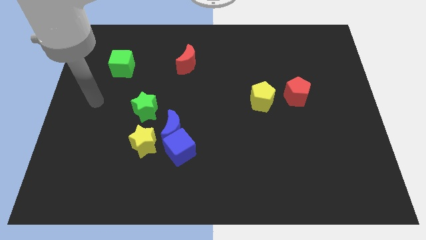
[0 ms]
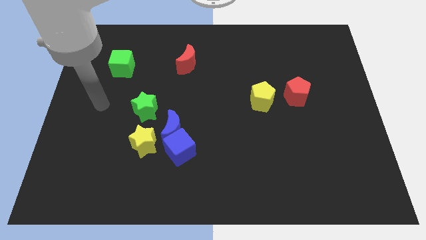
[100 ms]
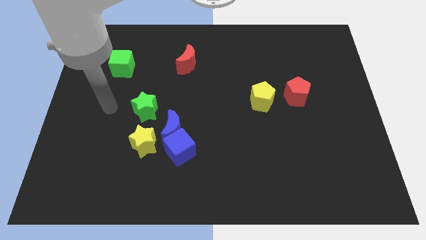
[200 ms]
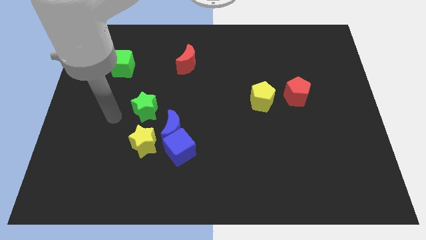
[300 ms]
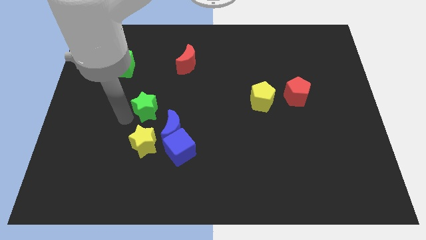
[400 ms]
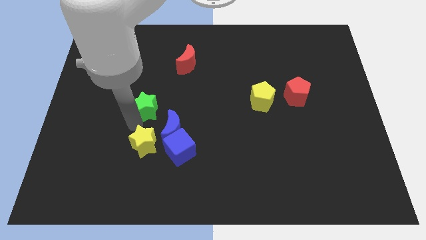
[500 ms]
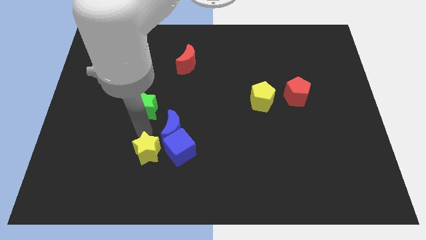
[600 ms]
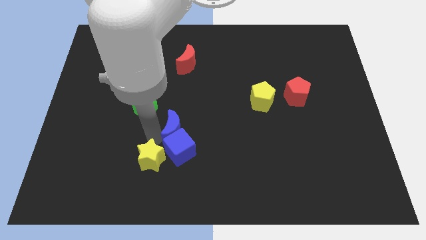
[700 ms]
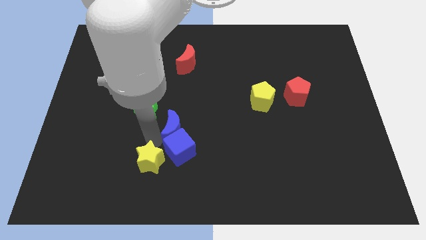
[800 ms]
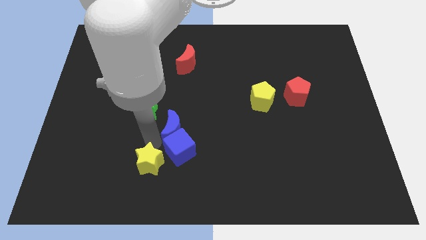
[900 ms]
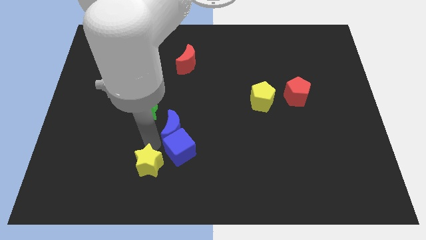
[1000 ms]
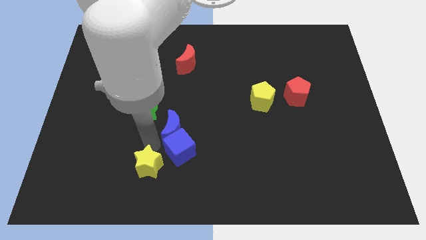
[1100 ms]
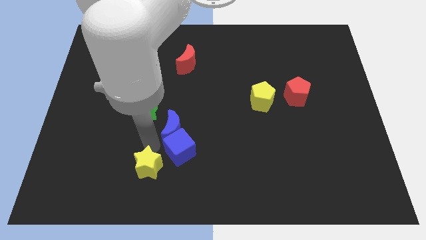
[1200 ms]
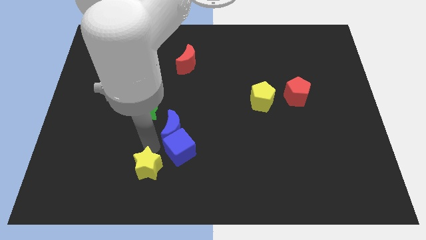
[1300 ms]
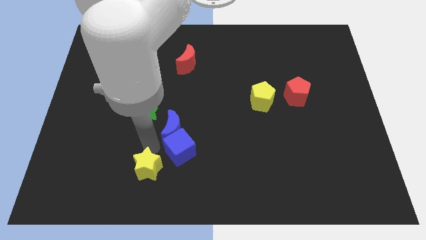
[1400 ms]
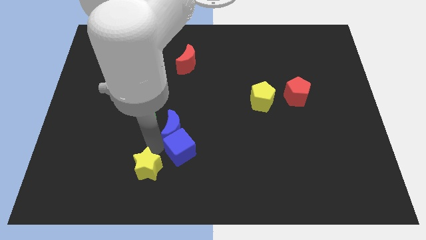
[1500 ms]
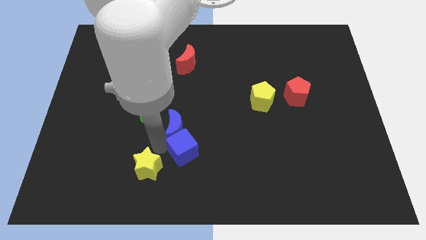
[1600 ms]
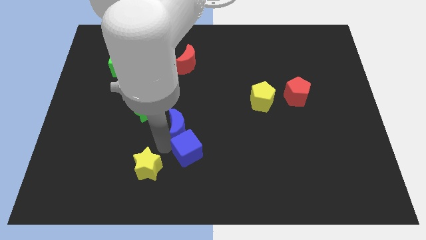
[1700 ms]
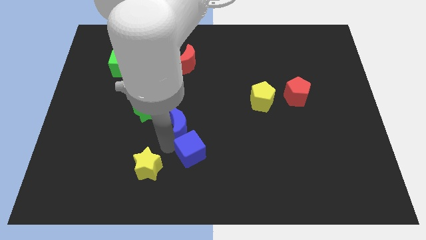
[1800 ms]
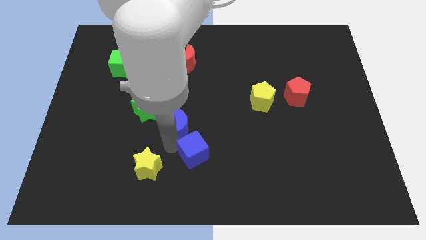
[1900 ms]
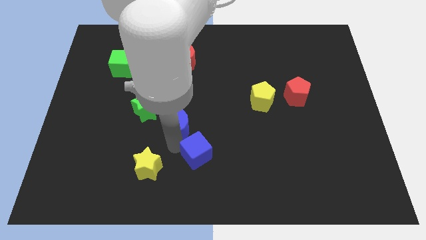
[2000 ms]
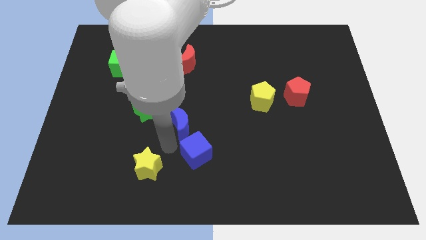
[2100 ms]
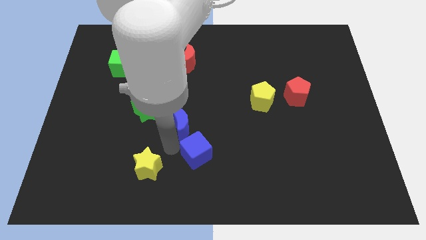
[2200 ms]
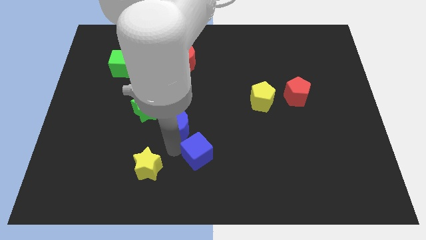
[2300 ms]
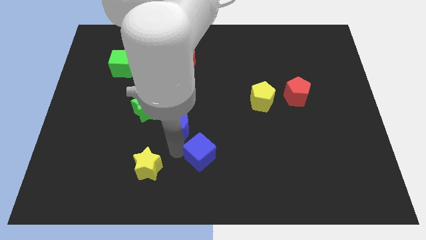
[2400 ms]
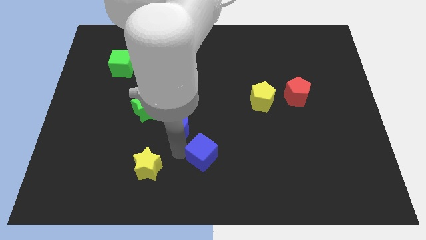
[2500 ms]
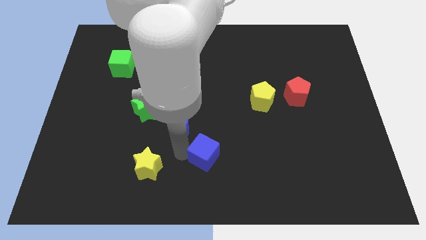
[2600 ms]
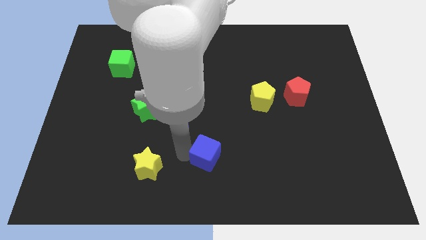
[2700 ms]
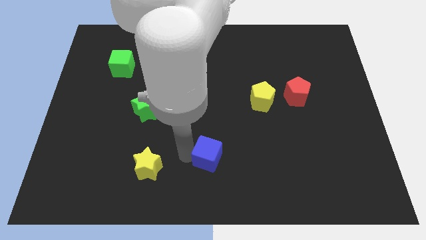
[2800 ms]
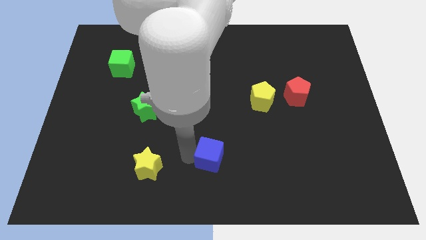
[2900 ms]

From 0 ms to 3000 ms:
separate the blue cube from the blue moon and yellow star

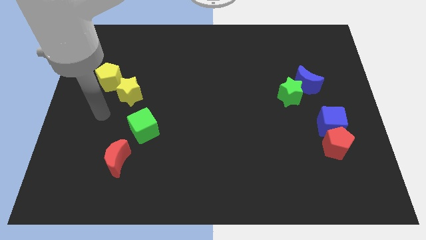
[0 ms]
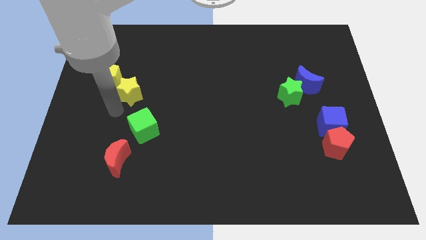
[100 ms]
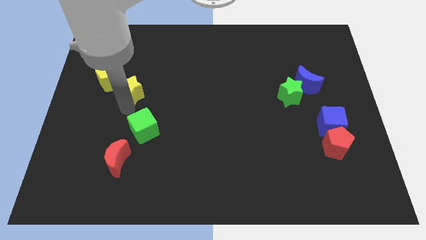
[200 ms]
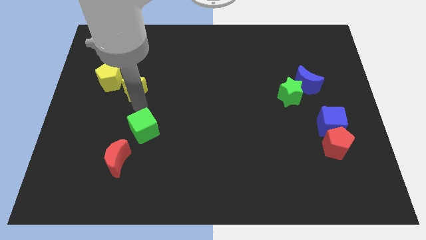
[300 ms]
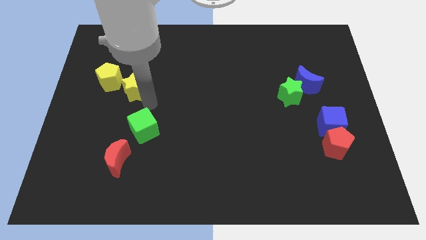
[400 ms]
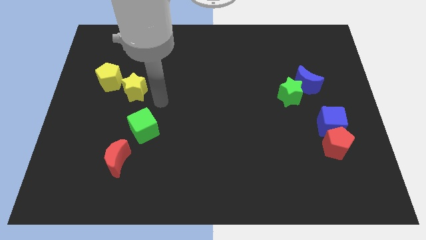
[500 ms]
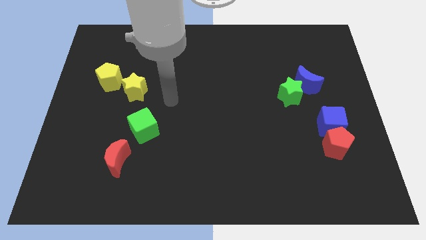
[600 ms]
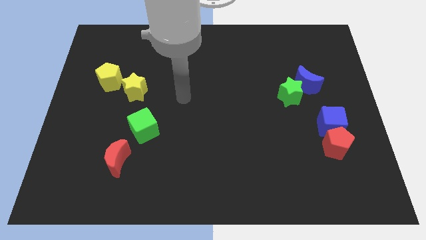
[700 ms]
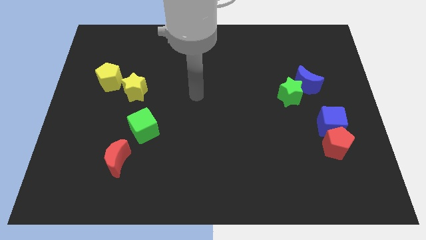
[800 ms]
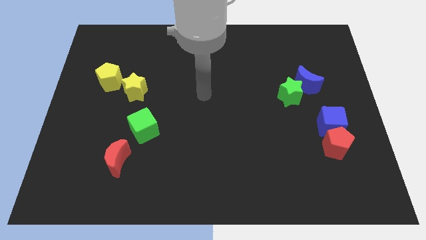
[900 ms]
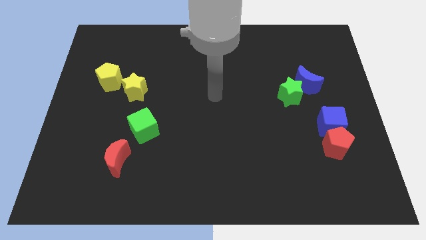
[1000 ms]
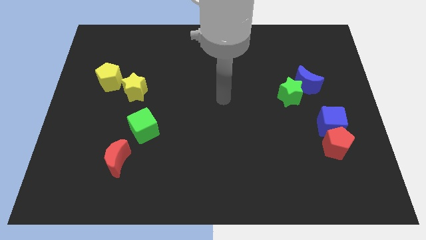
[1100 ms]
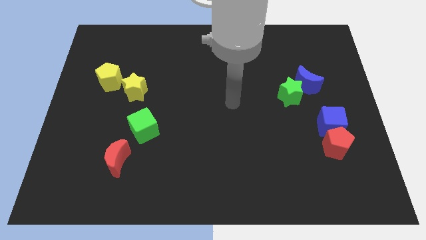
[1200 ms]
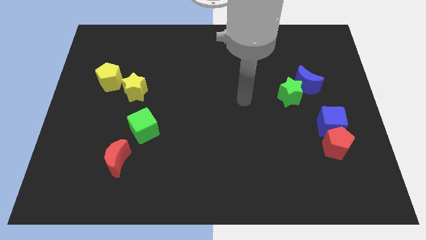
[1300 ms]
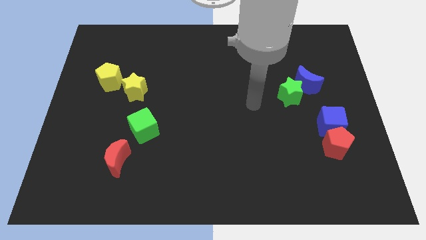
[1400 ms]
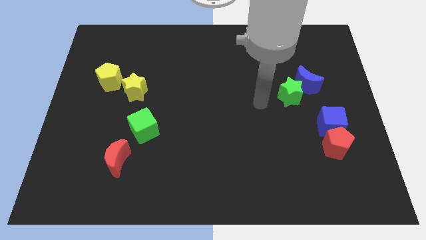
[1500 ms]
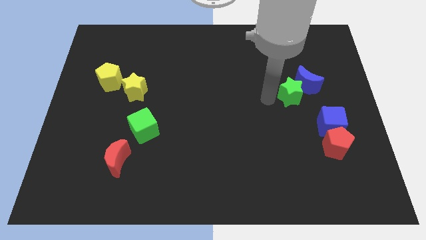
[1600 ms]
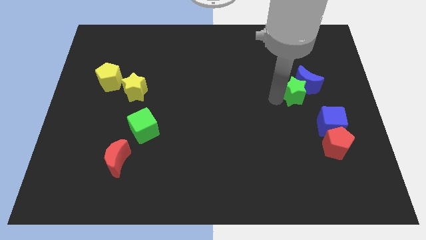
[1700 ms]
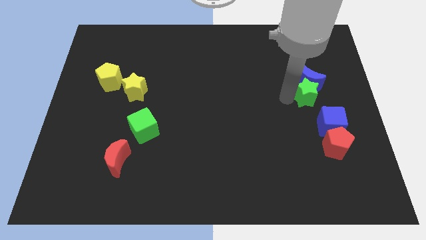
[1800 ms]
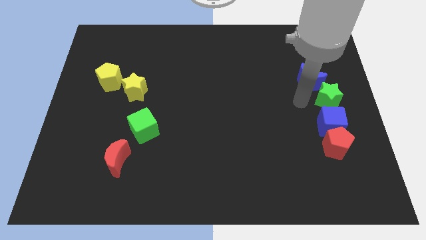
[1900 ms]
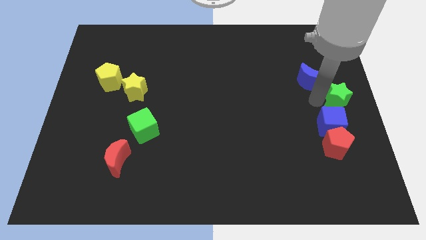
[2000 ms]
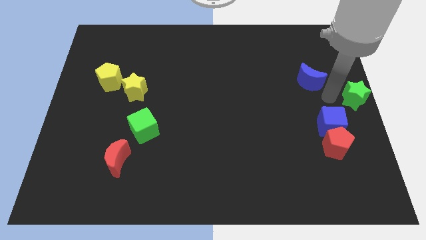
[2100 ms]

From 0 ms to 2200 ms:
separate the blue moon from the green star

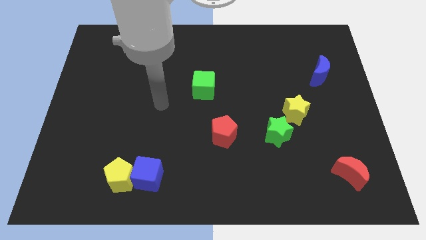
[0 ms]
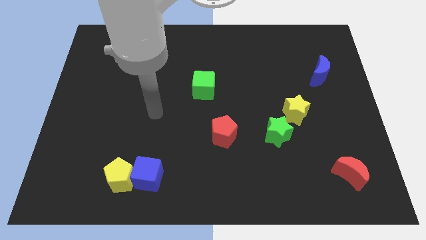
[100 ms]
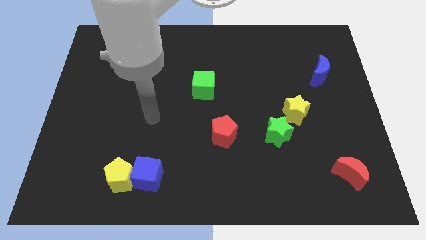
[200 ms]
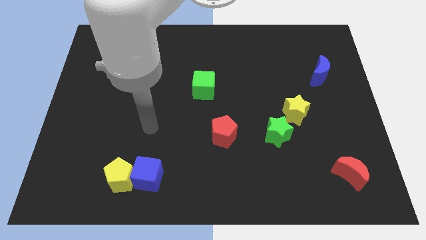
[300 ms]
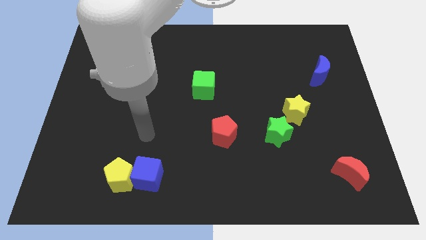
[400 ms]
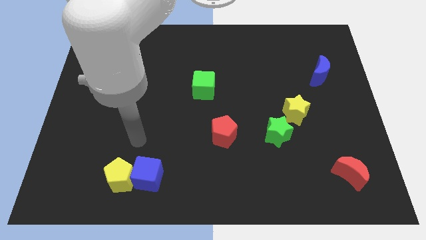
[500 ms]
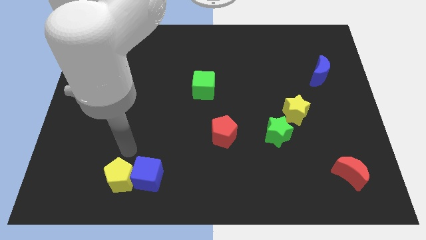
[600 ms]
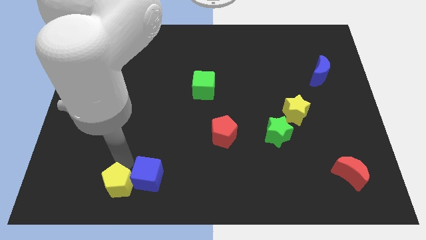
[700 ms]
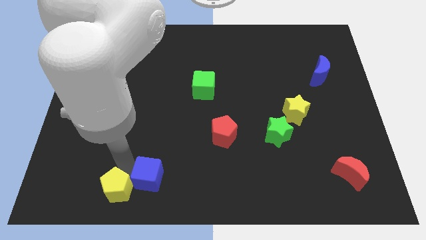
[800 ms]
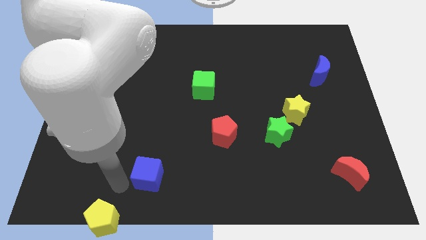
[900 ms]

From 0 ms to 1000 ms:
move the blue cube away from the yellow pentagon

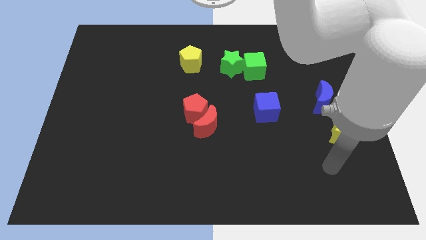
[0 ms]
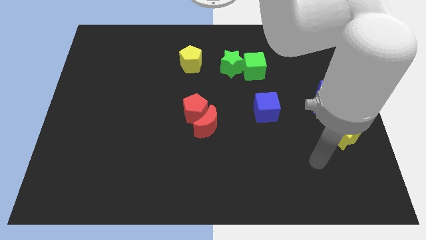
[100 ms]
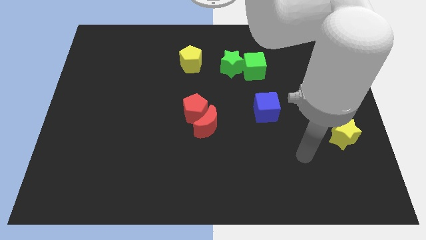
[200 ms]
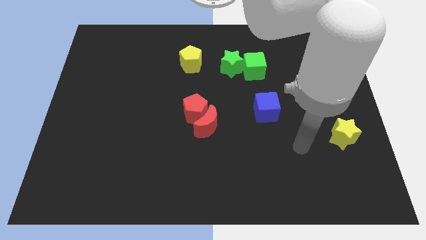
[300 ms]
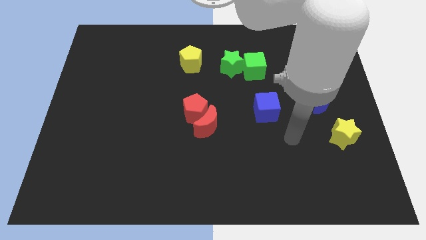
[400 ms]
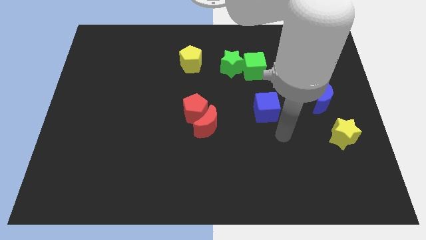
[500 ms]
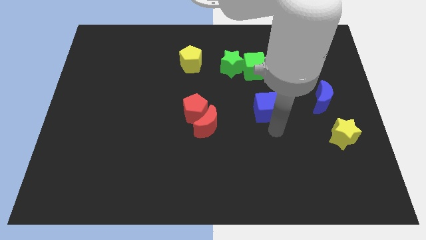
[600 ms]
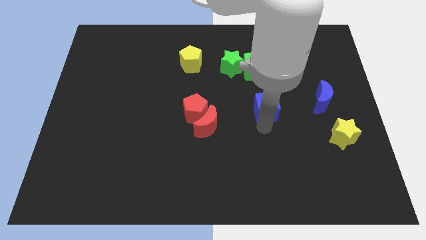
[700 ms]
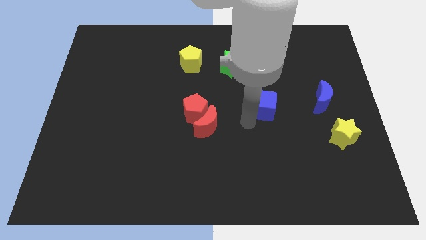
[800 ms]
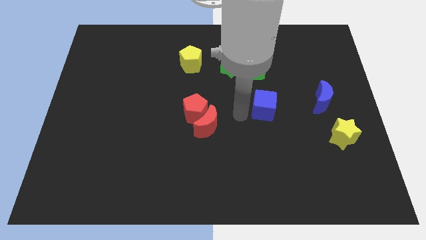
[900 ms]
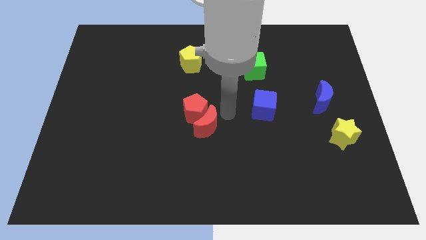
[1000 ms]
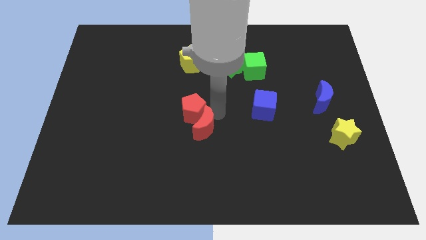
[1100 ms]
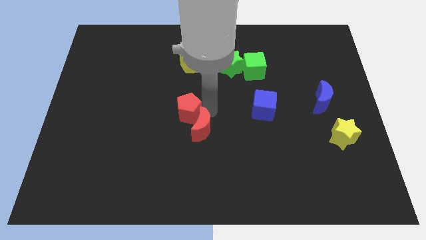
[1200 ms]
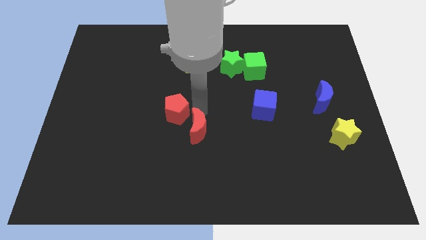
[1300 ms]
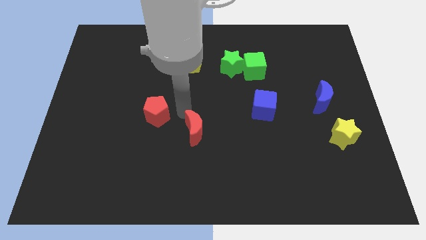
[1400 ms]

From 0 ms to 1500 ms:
pull the red moon apart from the red pentagon

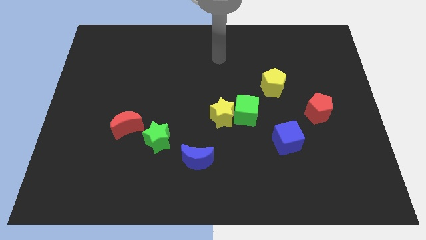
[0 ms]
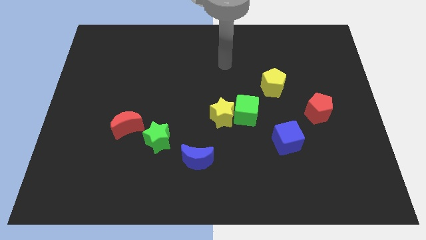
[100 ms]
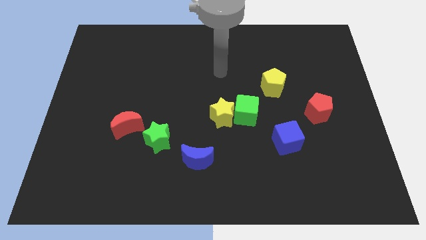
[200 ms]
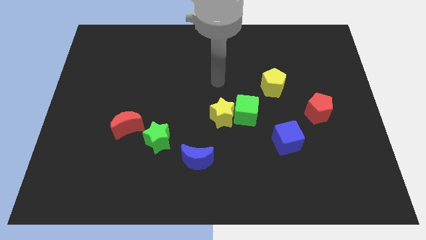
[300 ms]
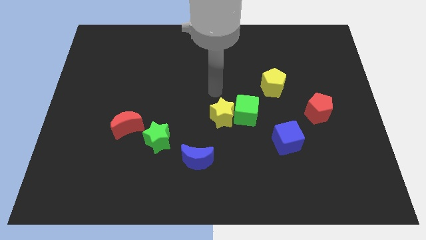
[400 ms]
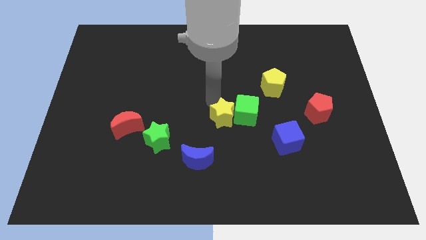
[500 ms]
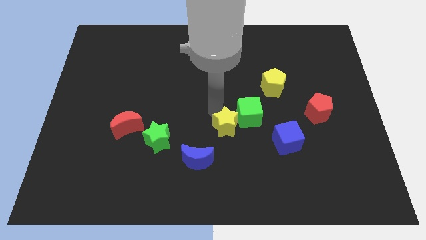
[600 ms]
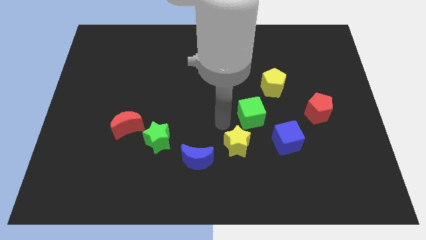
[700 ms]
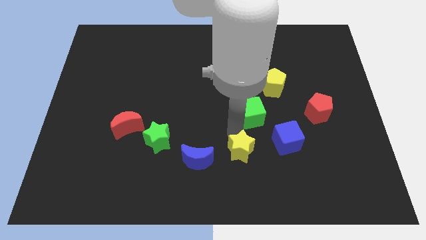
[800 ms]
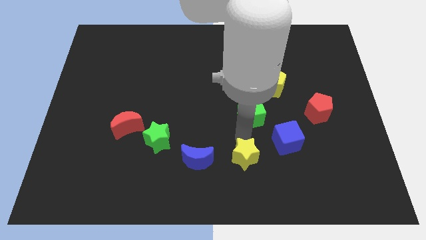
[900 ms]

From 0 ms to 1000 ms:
separate the green cube from the yellow star

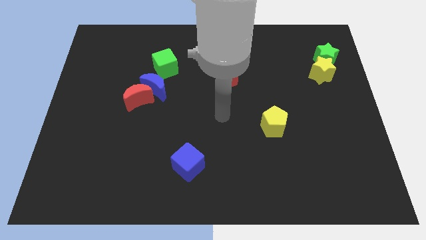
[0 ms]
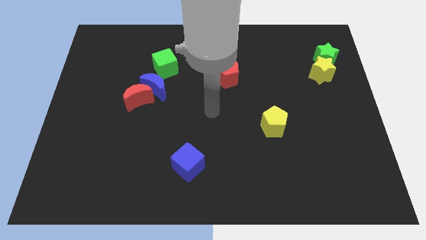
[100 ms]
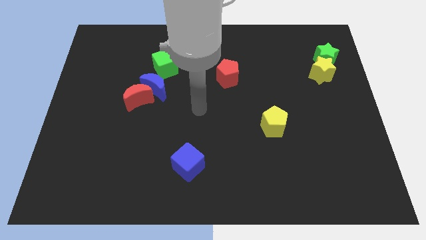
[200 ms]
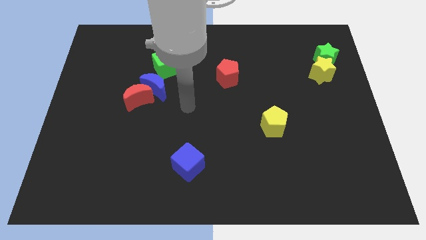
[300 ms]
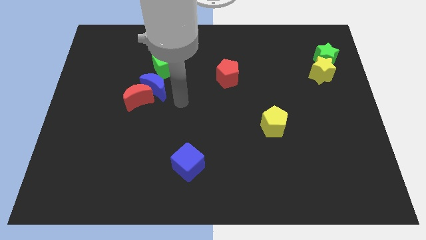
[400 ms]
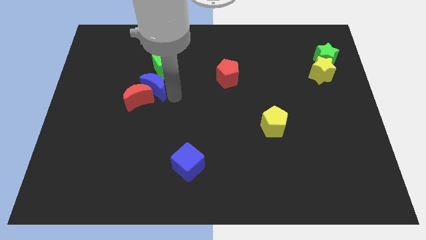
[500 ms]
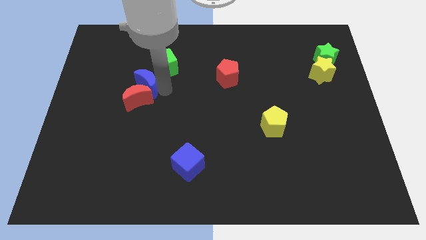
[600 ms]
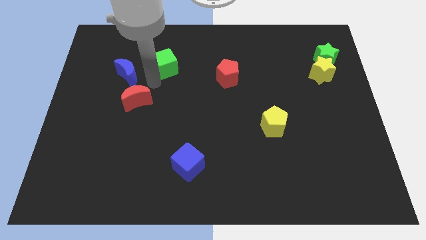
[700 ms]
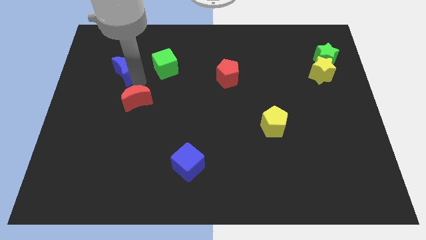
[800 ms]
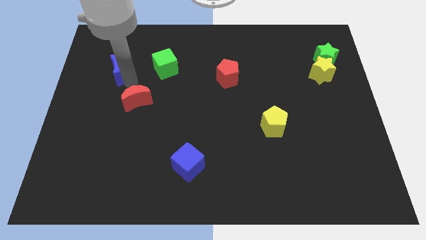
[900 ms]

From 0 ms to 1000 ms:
pull the red moon apart from the blue moon
